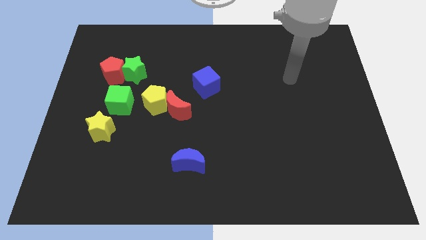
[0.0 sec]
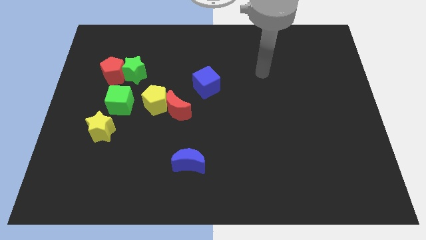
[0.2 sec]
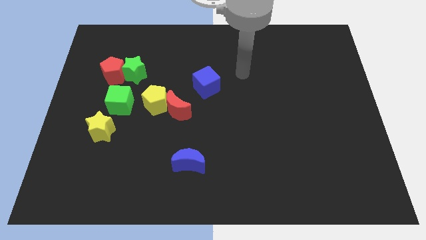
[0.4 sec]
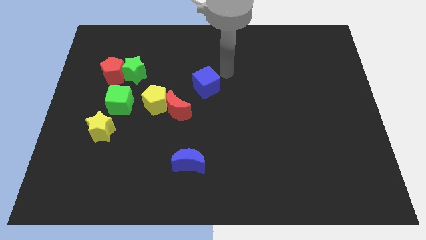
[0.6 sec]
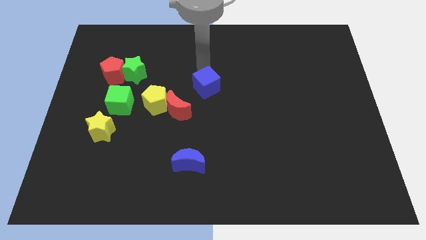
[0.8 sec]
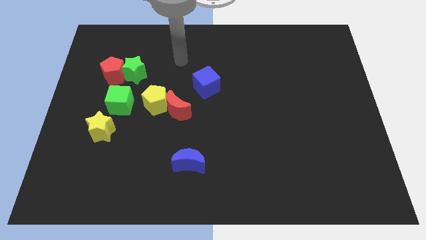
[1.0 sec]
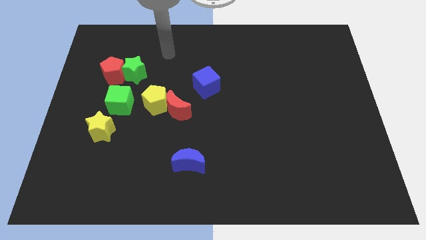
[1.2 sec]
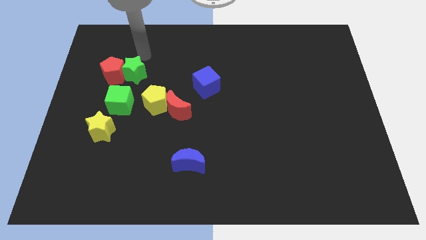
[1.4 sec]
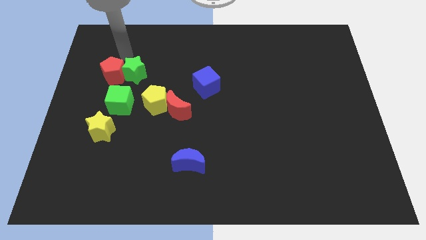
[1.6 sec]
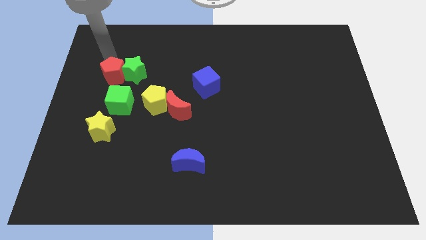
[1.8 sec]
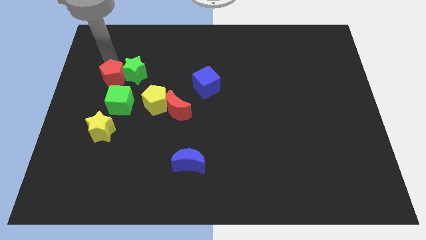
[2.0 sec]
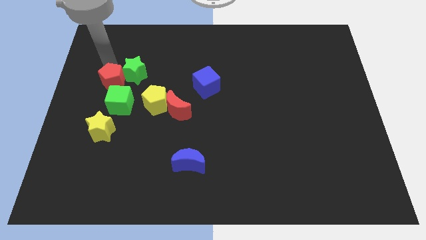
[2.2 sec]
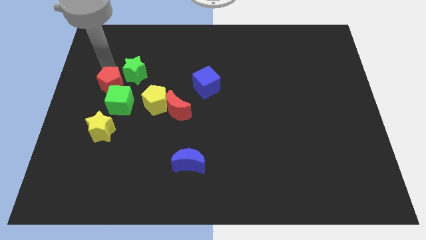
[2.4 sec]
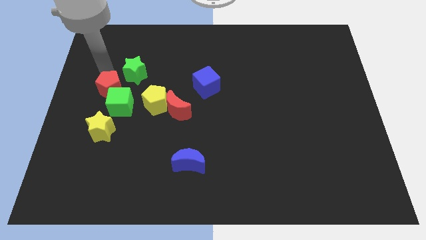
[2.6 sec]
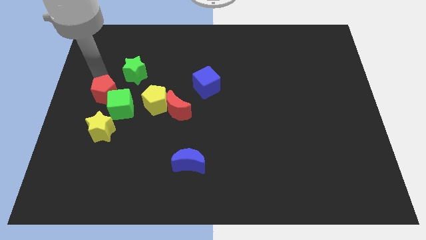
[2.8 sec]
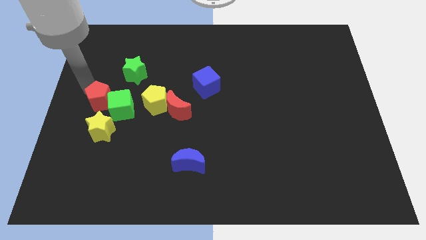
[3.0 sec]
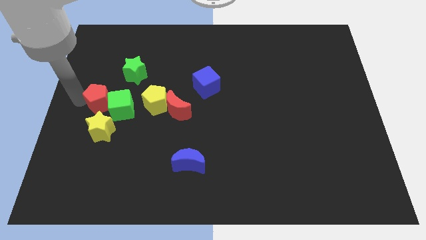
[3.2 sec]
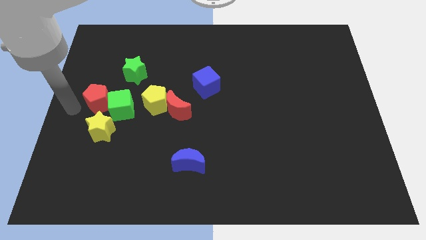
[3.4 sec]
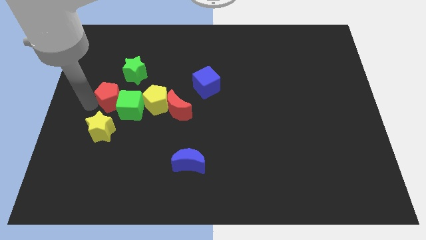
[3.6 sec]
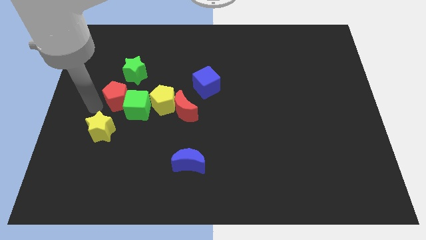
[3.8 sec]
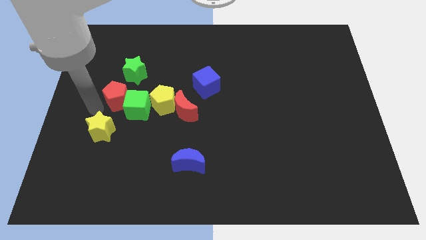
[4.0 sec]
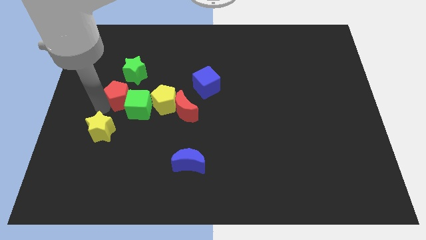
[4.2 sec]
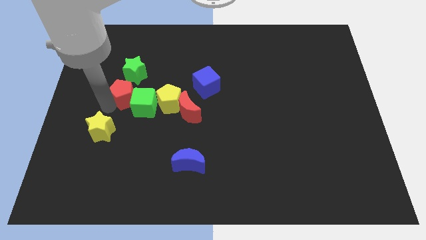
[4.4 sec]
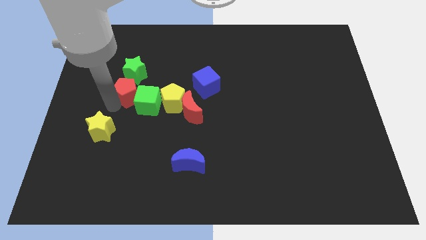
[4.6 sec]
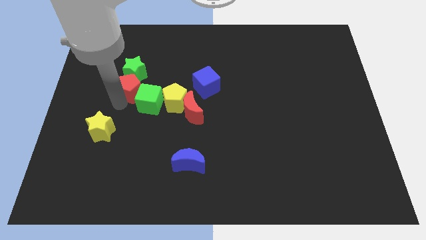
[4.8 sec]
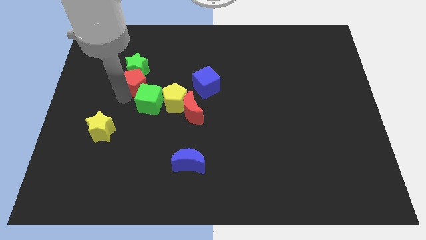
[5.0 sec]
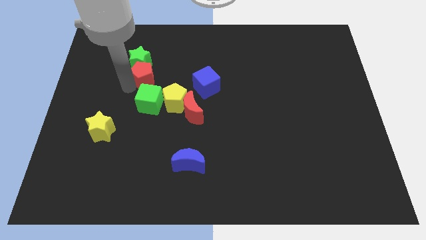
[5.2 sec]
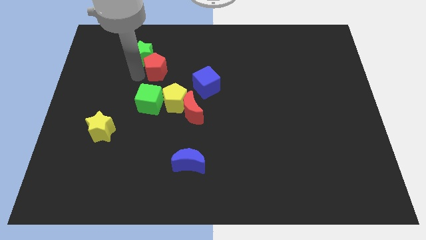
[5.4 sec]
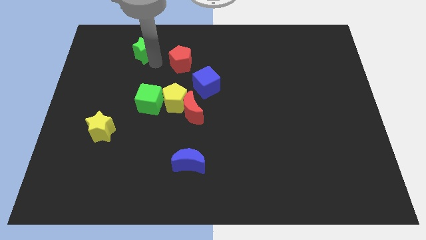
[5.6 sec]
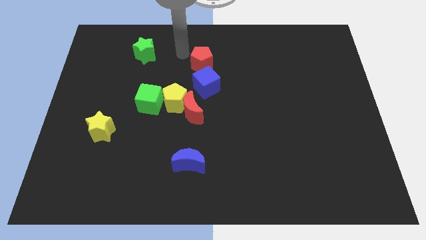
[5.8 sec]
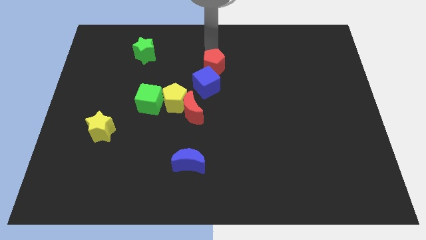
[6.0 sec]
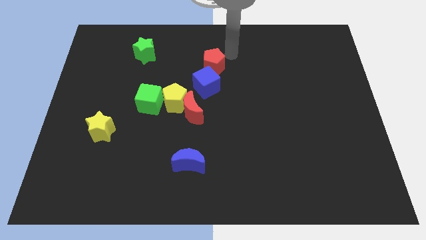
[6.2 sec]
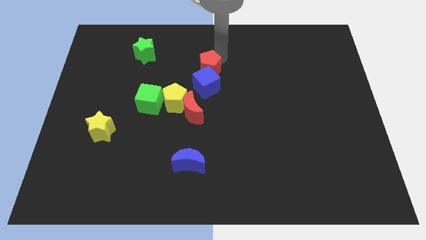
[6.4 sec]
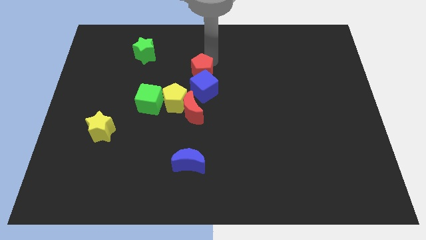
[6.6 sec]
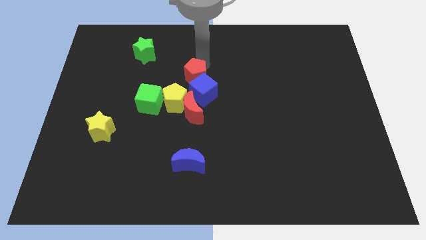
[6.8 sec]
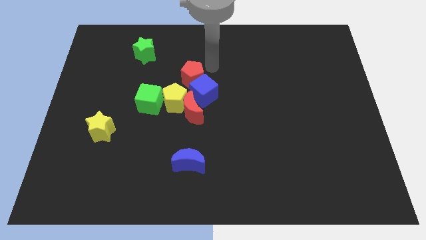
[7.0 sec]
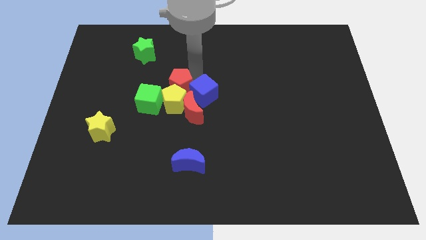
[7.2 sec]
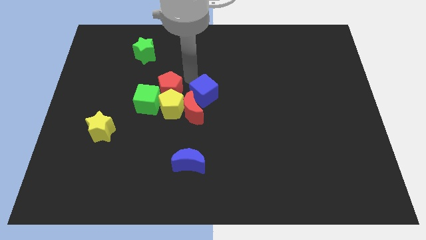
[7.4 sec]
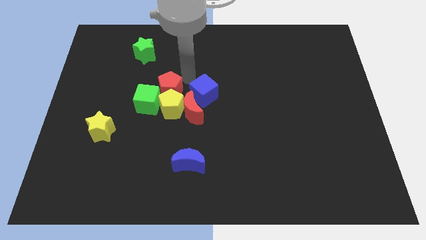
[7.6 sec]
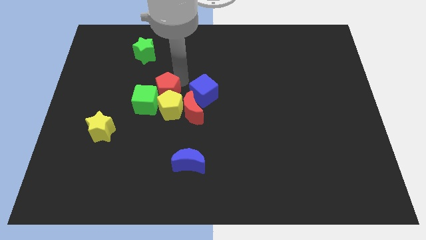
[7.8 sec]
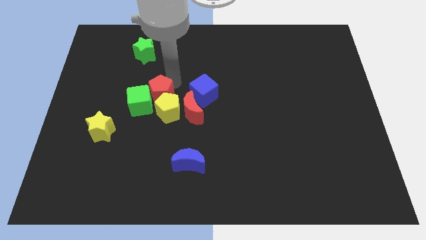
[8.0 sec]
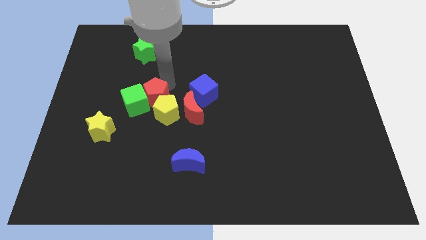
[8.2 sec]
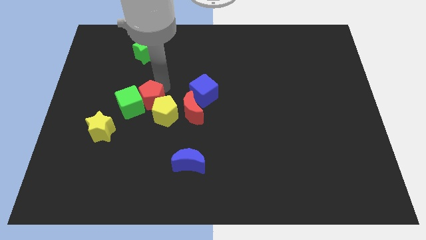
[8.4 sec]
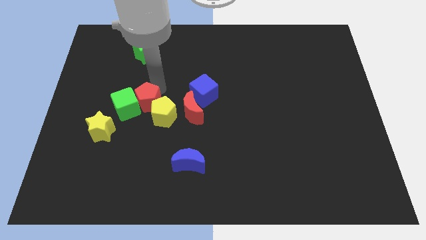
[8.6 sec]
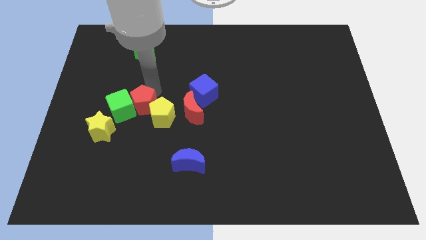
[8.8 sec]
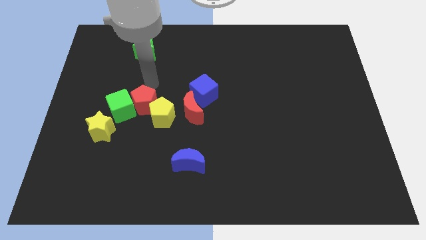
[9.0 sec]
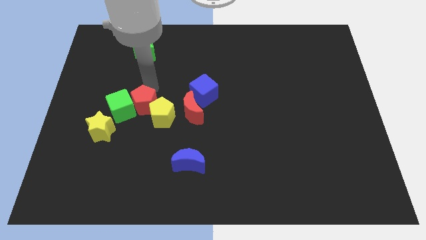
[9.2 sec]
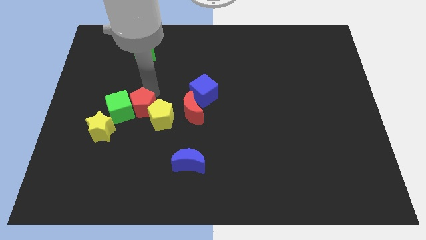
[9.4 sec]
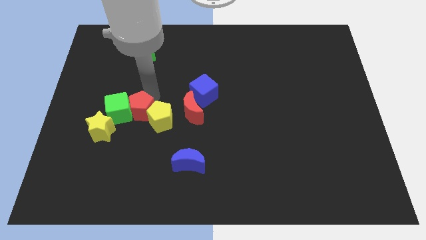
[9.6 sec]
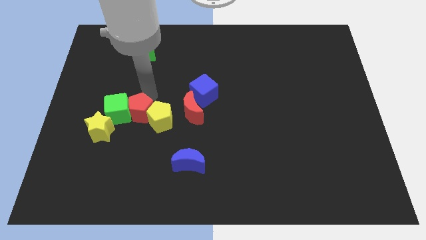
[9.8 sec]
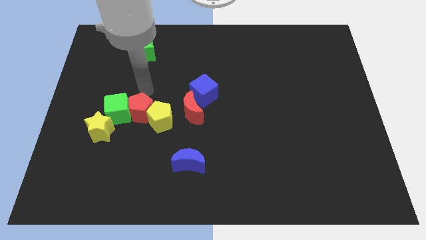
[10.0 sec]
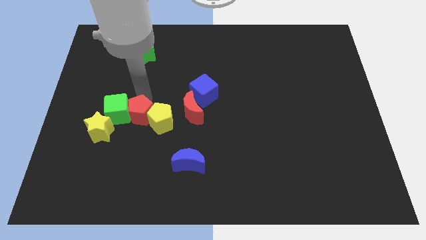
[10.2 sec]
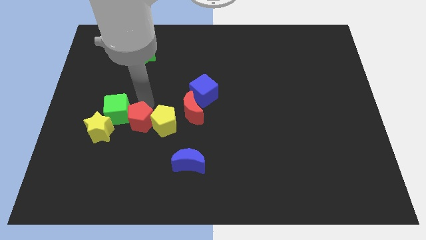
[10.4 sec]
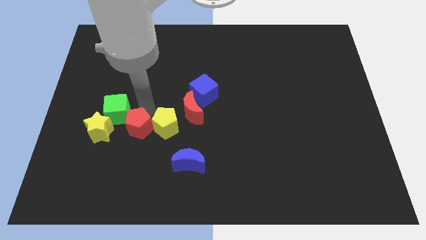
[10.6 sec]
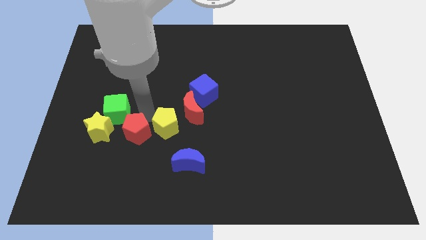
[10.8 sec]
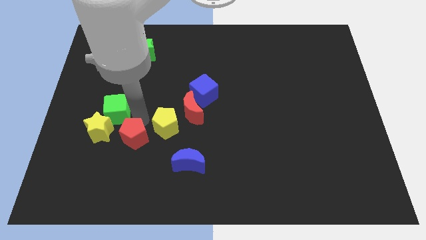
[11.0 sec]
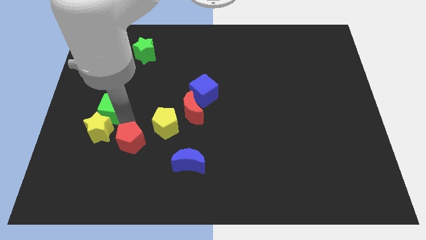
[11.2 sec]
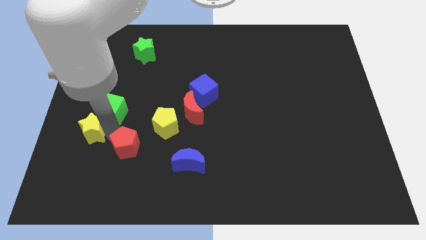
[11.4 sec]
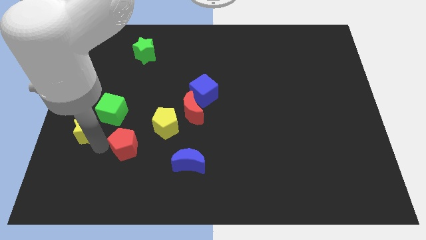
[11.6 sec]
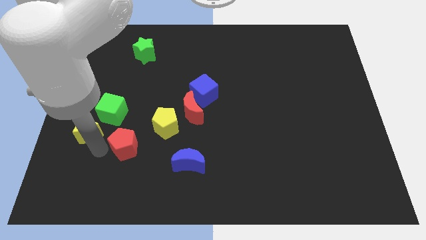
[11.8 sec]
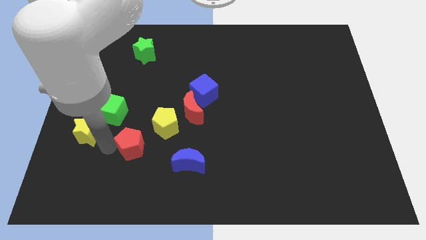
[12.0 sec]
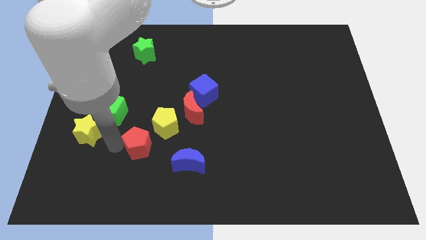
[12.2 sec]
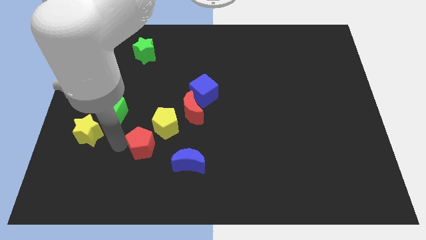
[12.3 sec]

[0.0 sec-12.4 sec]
slide the red pentagon diagonally up and to the left of the blue moon
